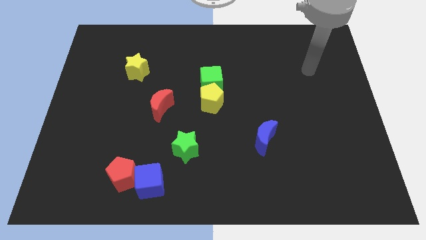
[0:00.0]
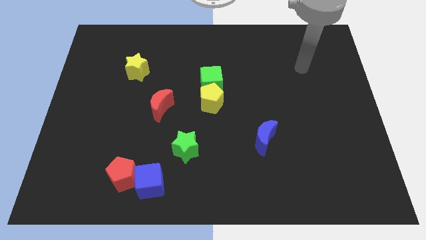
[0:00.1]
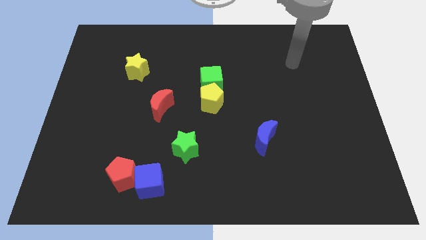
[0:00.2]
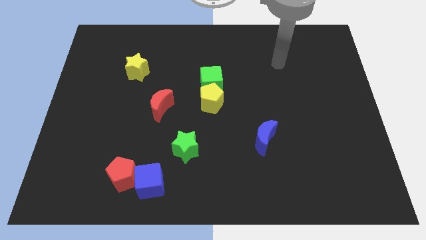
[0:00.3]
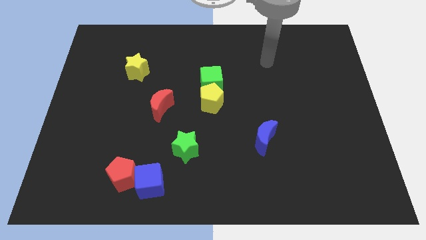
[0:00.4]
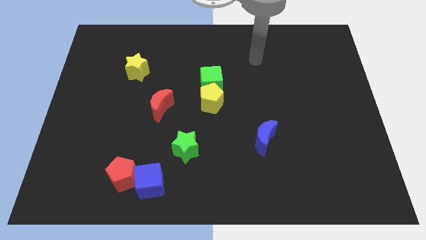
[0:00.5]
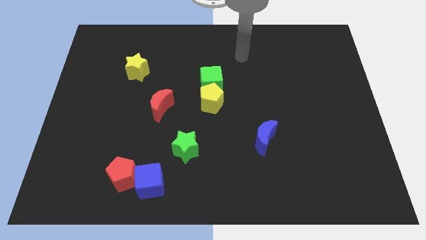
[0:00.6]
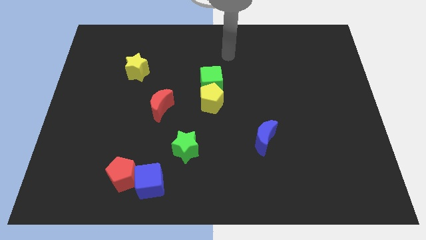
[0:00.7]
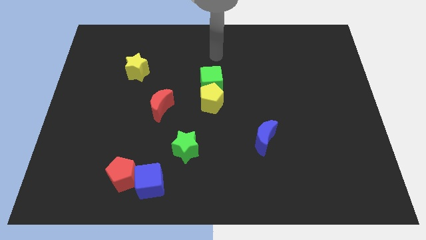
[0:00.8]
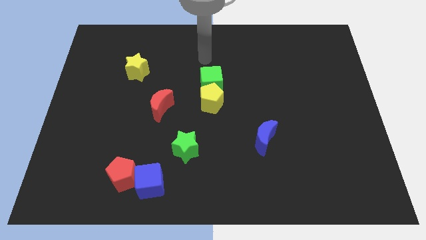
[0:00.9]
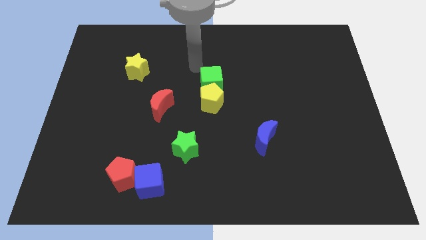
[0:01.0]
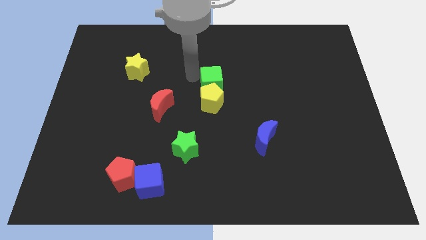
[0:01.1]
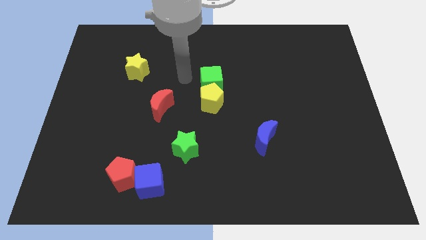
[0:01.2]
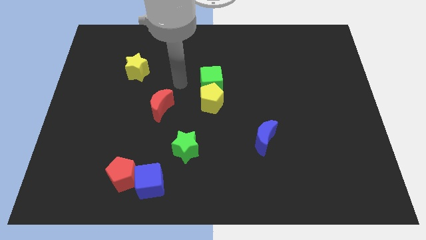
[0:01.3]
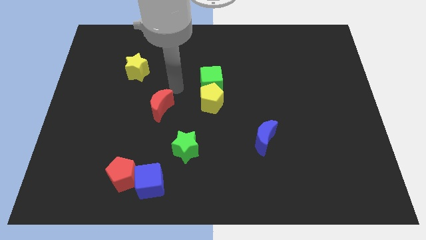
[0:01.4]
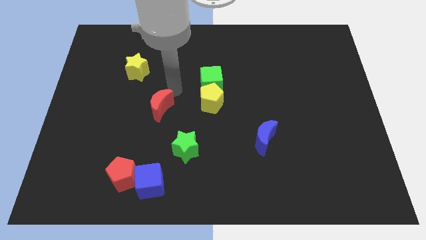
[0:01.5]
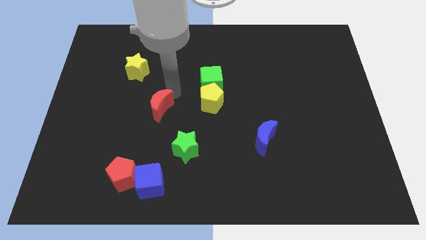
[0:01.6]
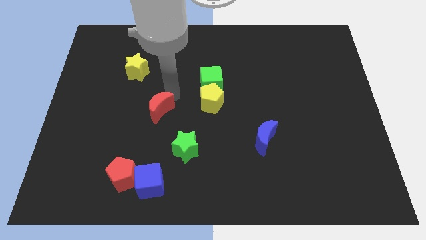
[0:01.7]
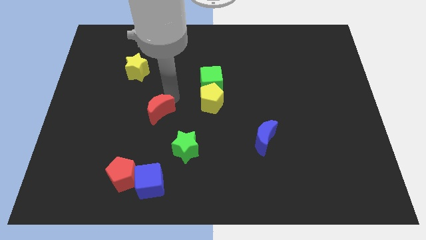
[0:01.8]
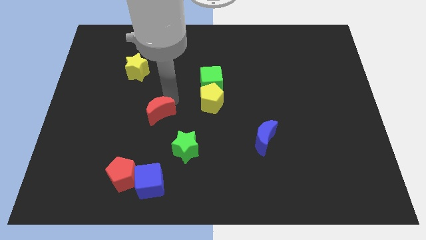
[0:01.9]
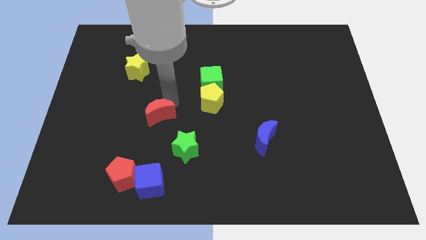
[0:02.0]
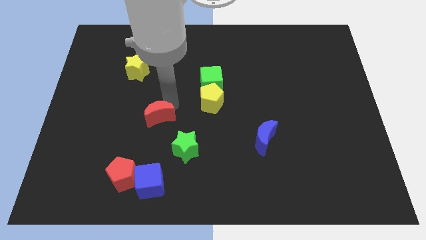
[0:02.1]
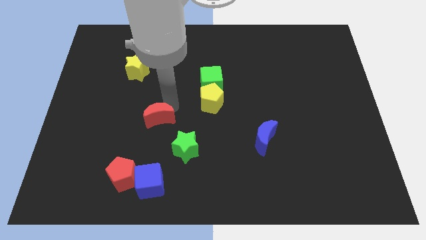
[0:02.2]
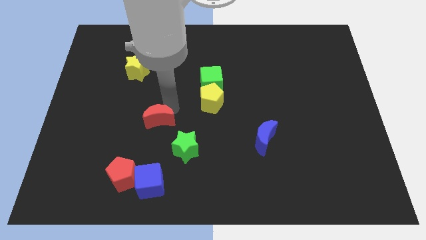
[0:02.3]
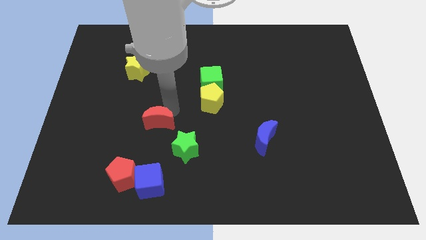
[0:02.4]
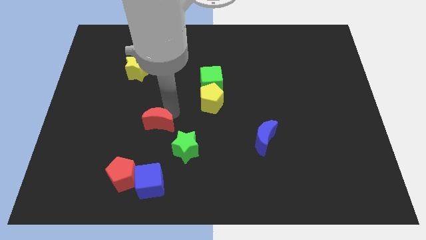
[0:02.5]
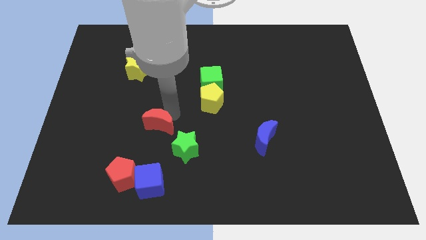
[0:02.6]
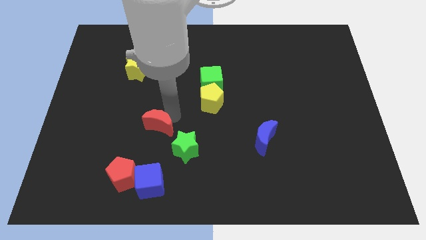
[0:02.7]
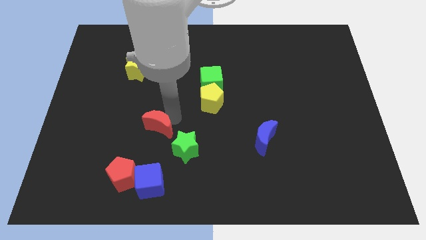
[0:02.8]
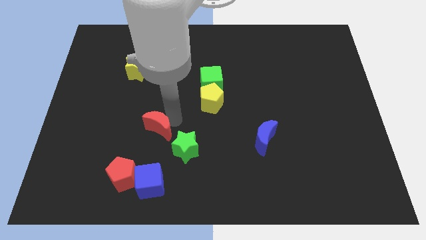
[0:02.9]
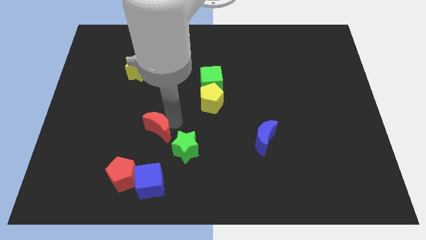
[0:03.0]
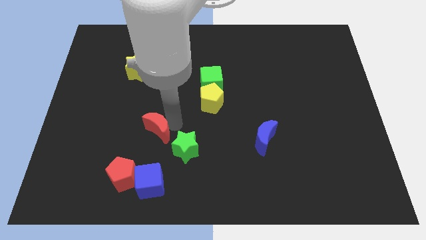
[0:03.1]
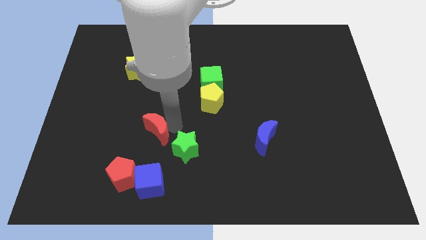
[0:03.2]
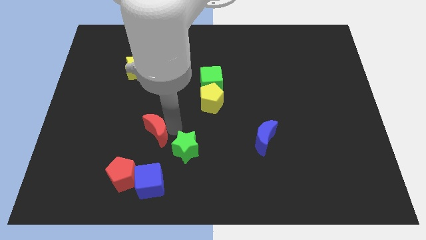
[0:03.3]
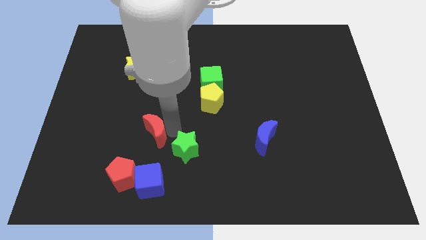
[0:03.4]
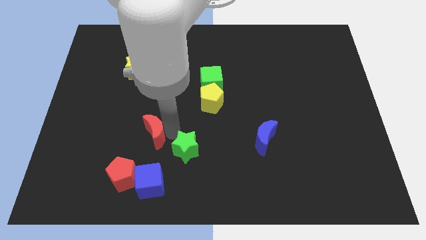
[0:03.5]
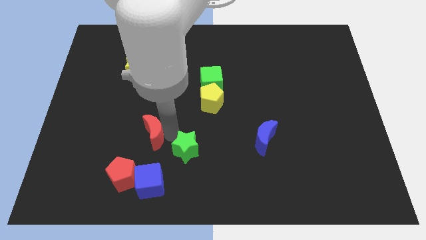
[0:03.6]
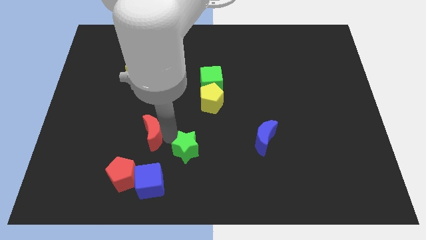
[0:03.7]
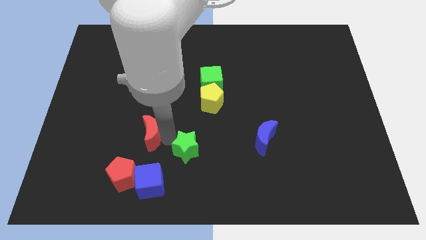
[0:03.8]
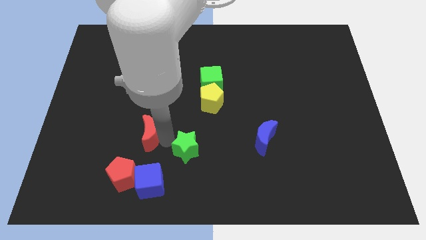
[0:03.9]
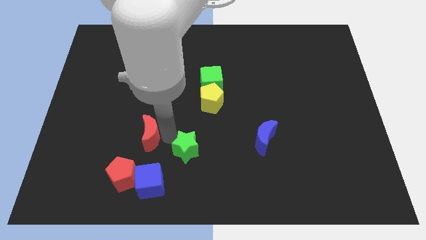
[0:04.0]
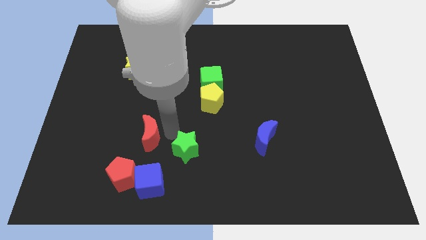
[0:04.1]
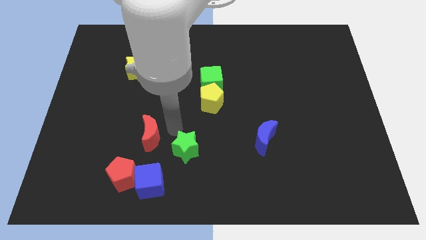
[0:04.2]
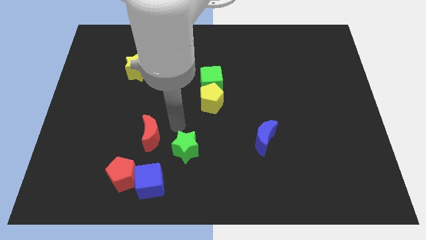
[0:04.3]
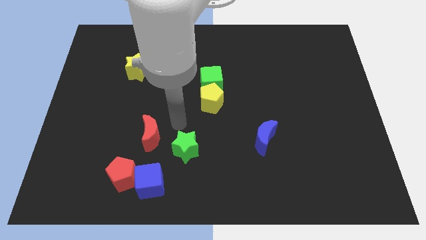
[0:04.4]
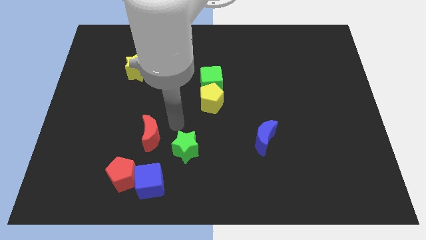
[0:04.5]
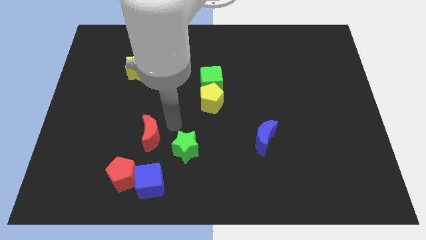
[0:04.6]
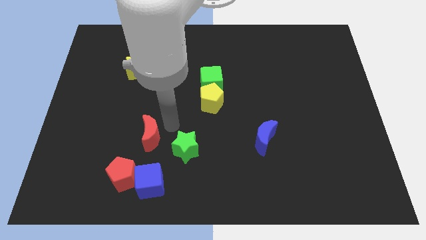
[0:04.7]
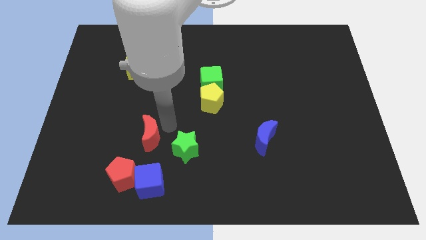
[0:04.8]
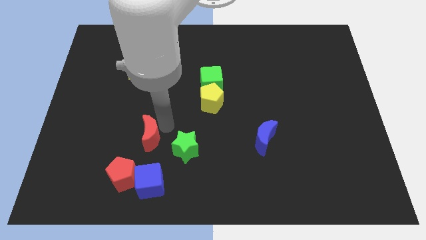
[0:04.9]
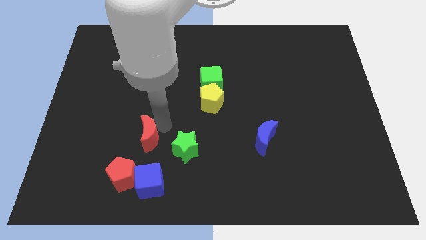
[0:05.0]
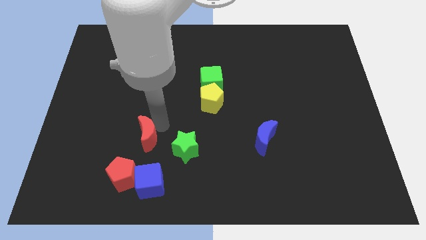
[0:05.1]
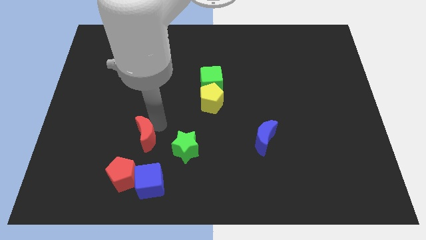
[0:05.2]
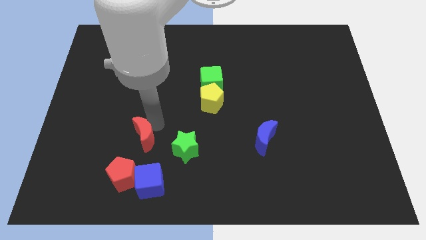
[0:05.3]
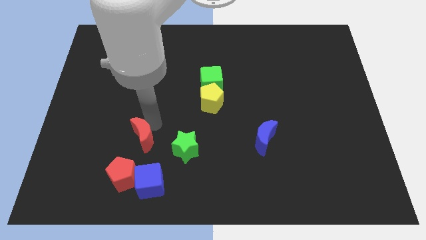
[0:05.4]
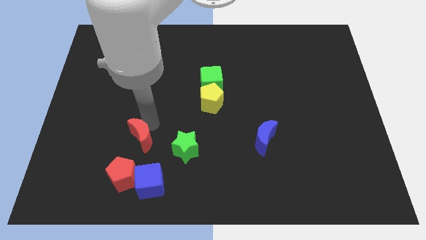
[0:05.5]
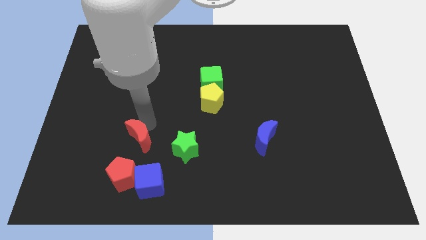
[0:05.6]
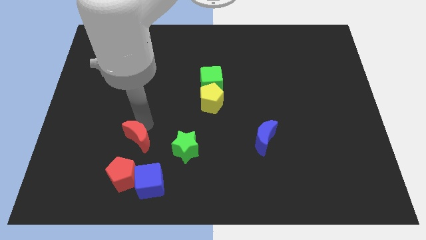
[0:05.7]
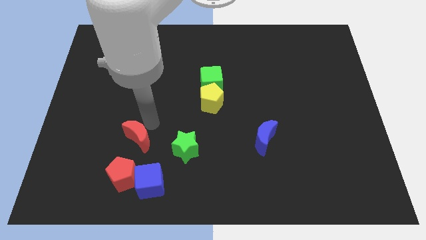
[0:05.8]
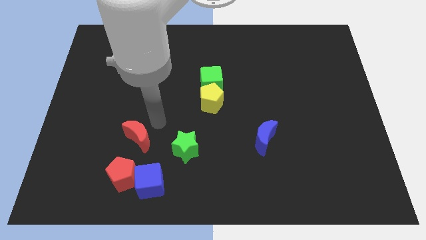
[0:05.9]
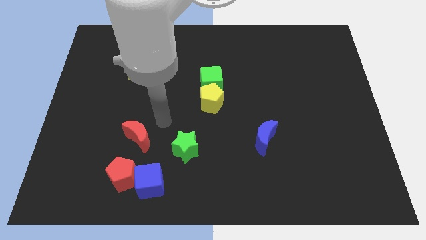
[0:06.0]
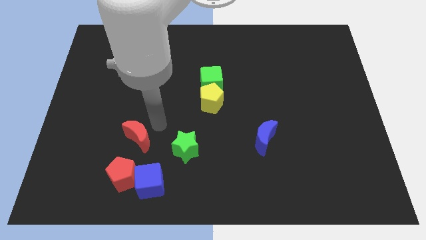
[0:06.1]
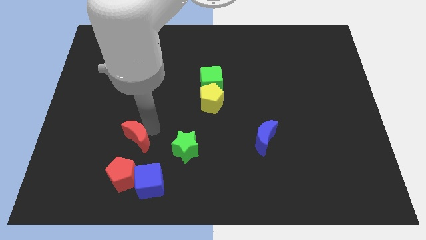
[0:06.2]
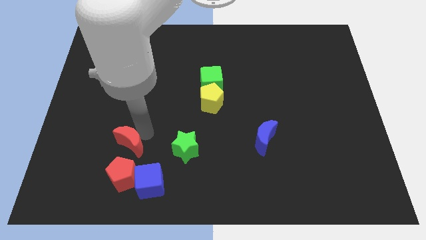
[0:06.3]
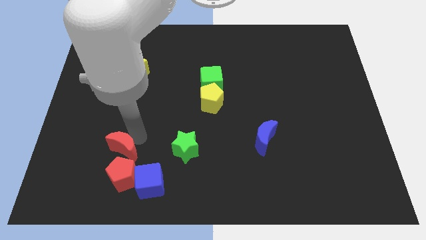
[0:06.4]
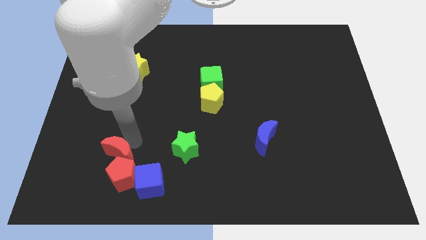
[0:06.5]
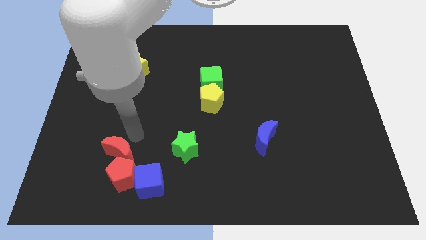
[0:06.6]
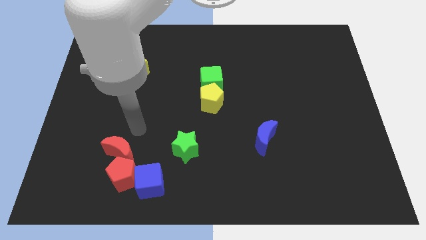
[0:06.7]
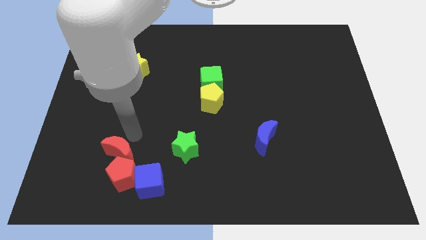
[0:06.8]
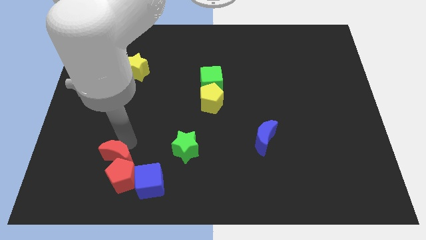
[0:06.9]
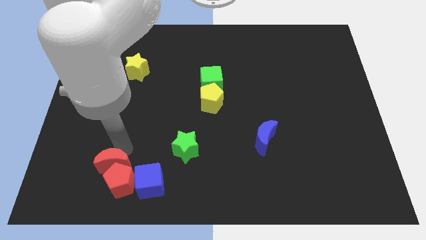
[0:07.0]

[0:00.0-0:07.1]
push the red moon to the left of the blue cube

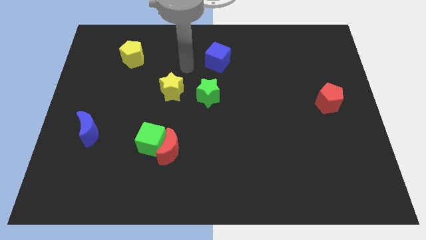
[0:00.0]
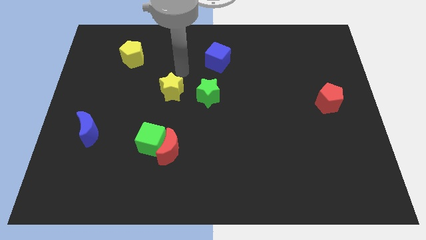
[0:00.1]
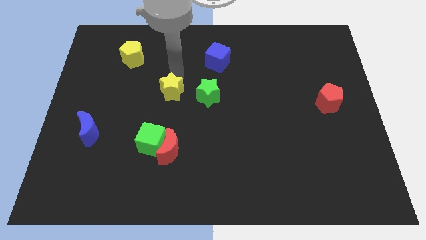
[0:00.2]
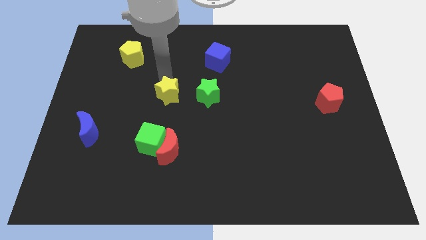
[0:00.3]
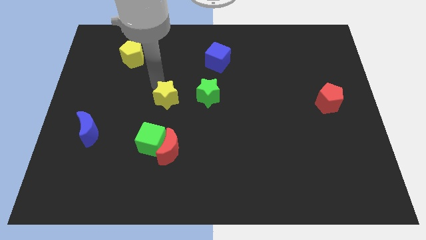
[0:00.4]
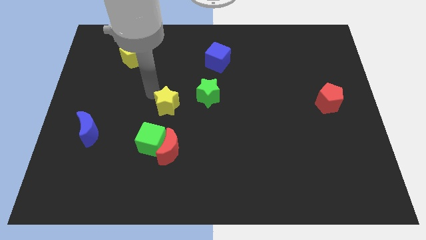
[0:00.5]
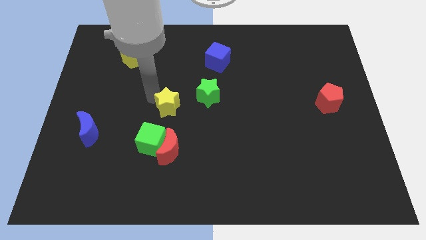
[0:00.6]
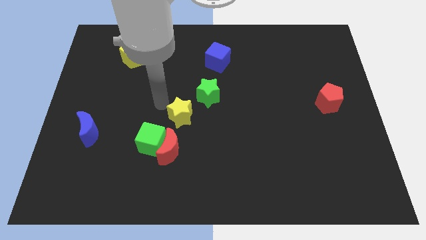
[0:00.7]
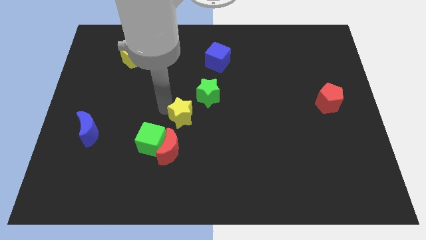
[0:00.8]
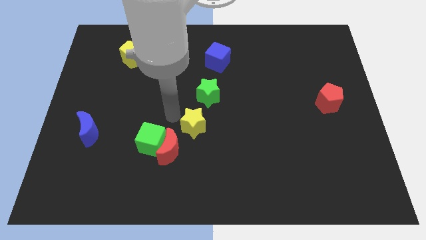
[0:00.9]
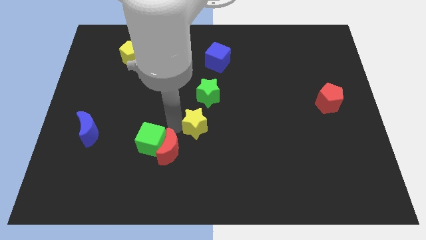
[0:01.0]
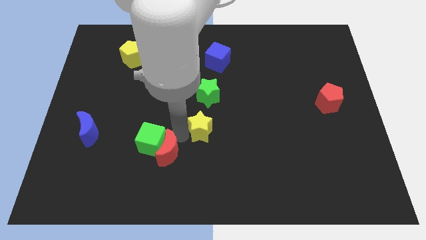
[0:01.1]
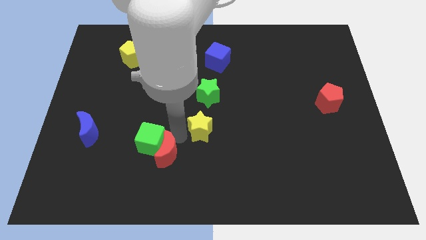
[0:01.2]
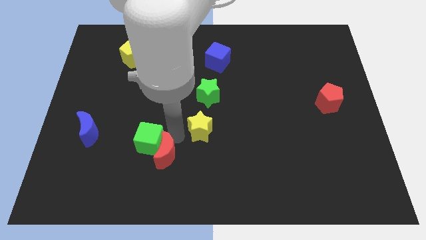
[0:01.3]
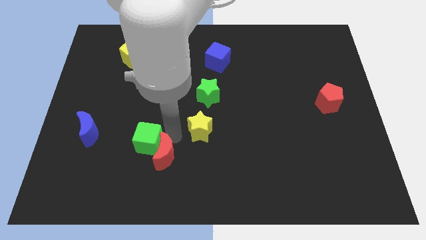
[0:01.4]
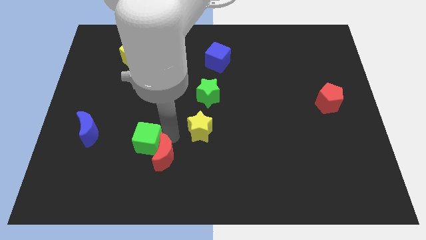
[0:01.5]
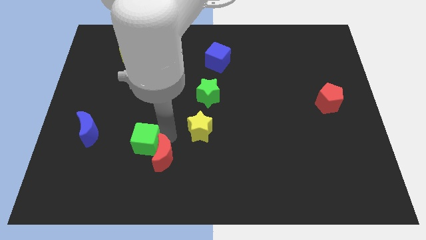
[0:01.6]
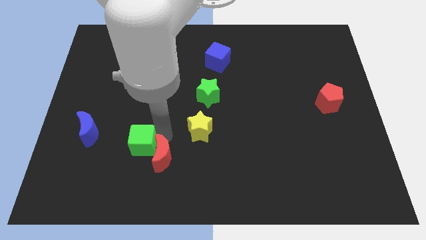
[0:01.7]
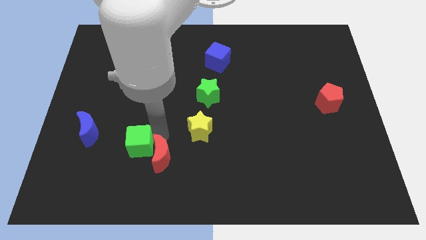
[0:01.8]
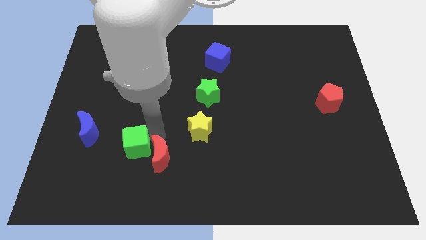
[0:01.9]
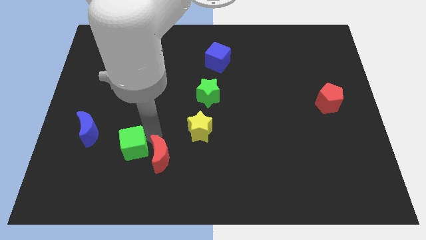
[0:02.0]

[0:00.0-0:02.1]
put the green cube diagonally down and to the right of the blue moon
